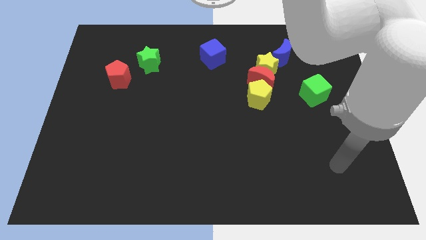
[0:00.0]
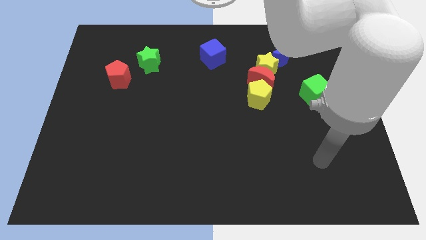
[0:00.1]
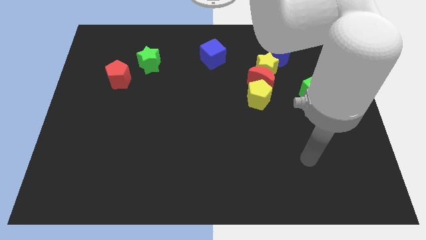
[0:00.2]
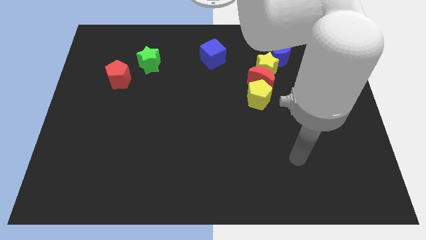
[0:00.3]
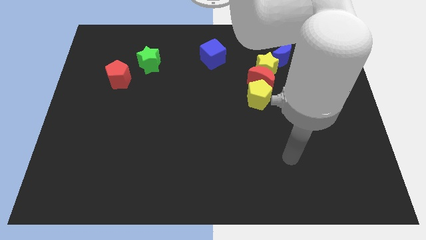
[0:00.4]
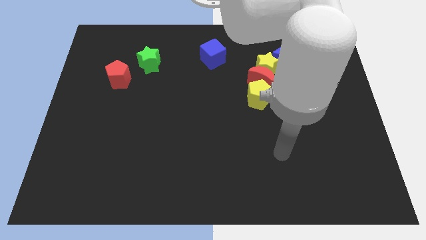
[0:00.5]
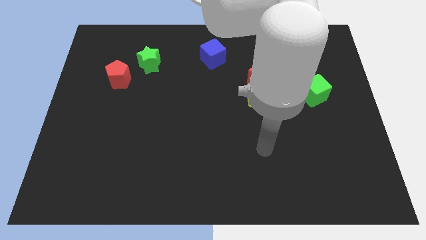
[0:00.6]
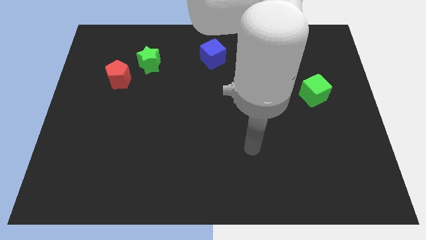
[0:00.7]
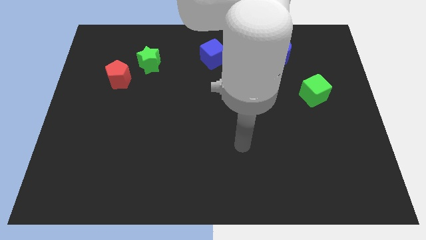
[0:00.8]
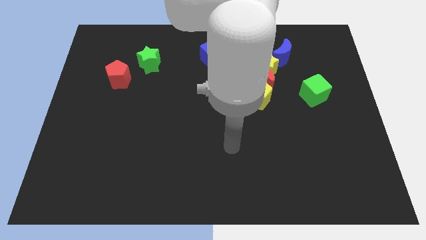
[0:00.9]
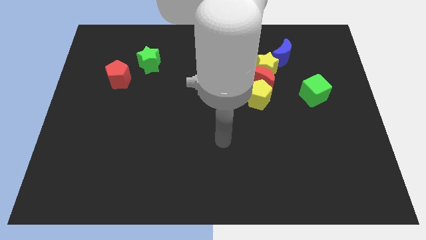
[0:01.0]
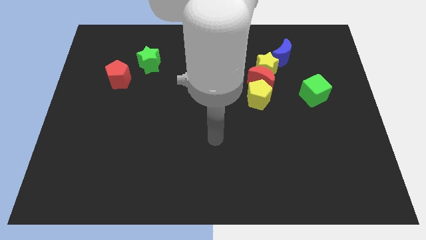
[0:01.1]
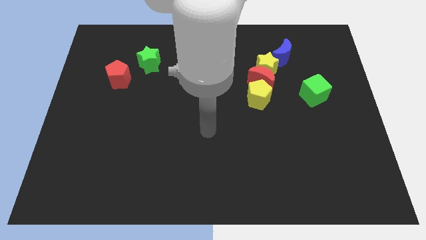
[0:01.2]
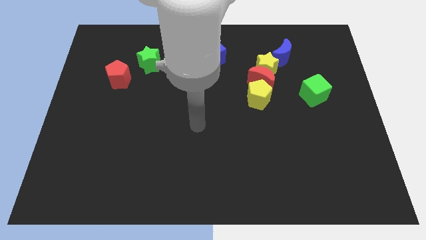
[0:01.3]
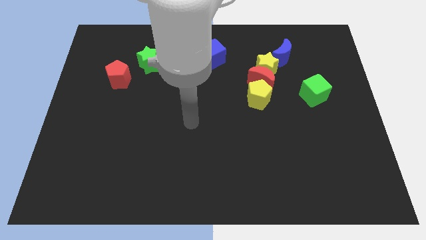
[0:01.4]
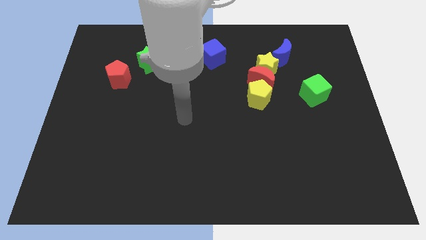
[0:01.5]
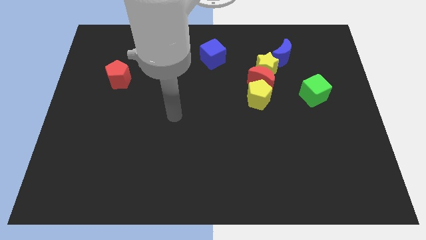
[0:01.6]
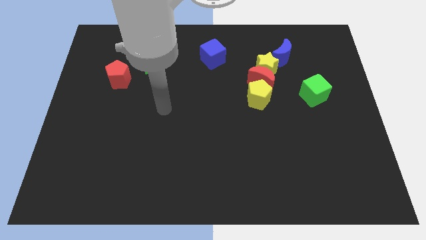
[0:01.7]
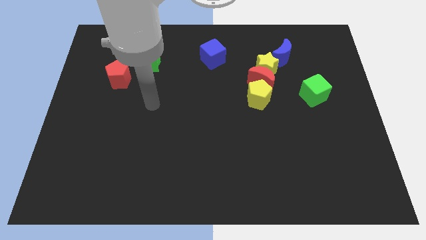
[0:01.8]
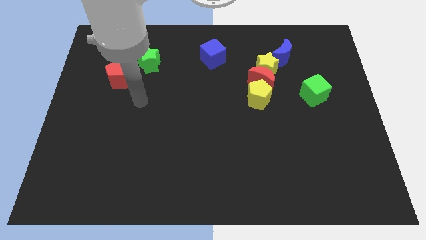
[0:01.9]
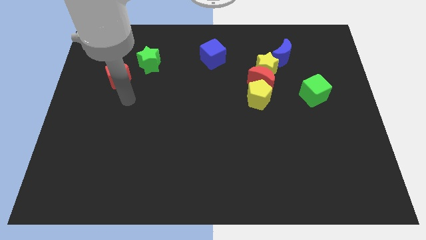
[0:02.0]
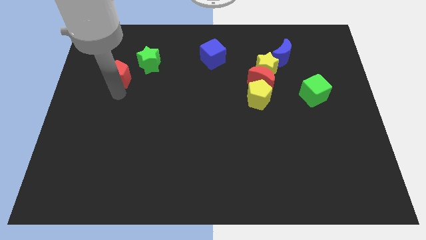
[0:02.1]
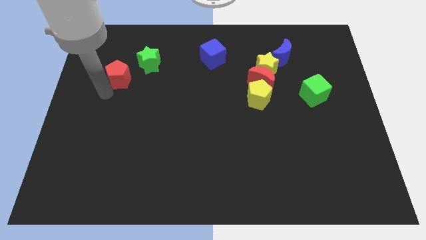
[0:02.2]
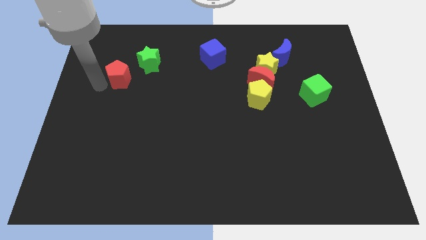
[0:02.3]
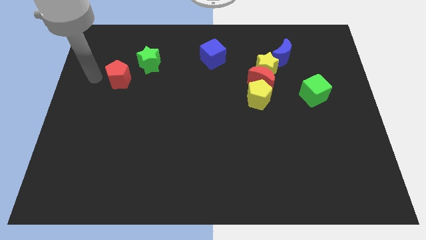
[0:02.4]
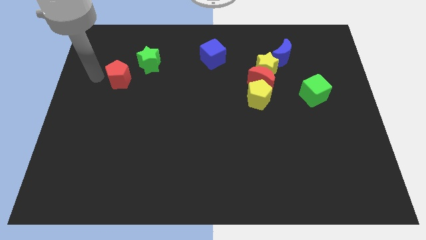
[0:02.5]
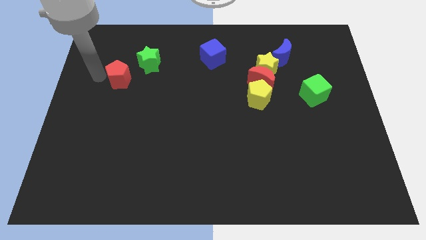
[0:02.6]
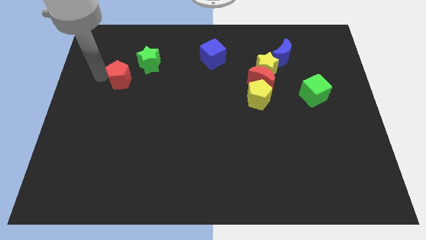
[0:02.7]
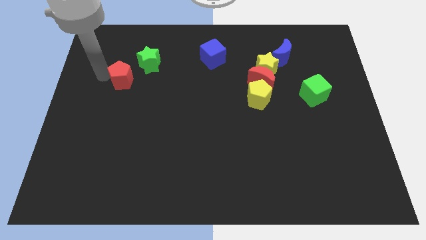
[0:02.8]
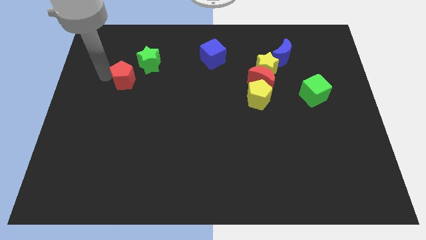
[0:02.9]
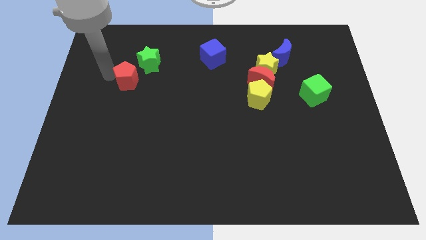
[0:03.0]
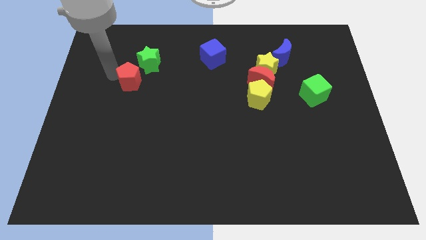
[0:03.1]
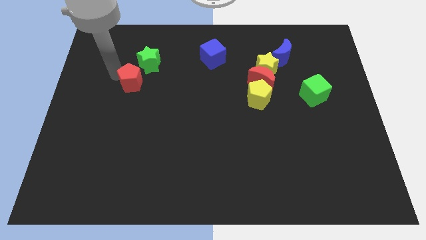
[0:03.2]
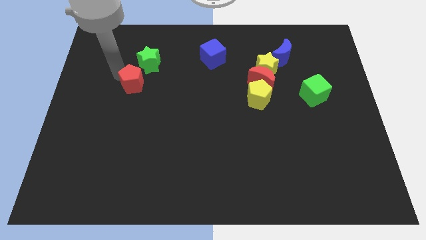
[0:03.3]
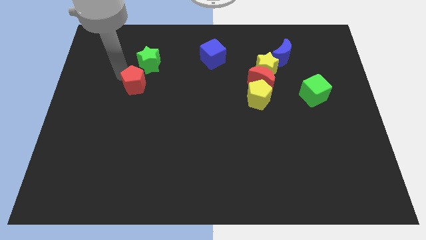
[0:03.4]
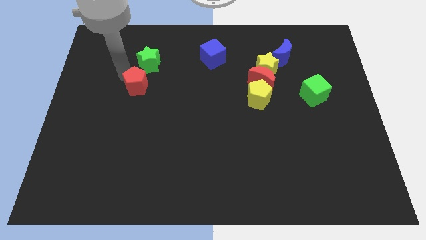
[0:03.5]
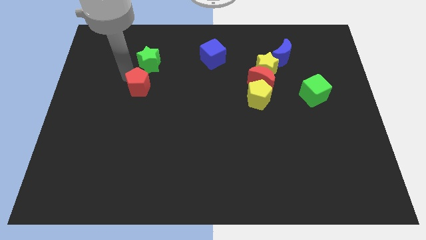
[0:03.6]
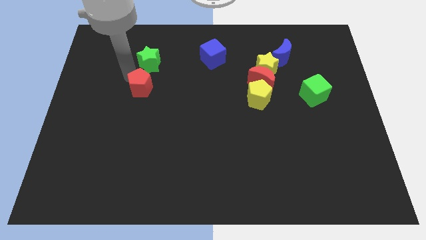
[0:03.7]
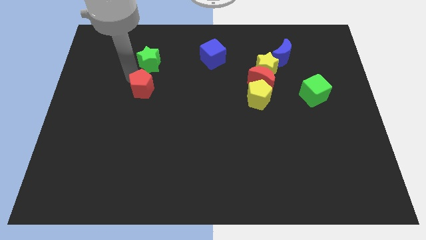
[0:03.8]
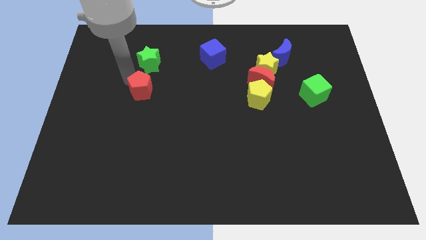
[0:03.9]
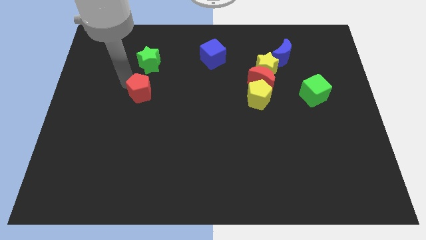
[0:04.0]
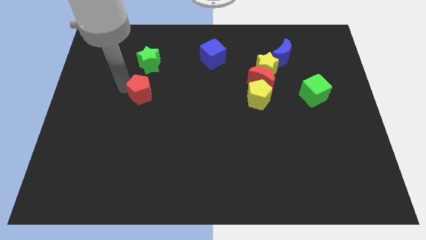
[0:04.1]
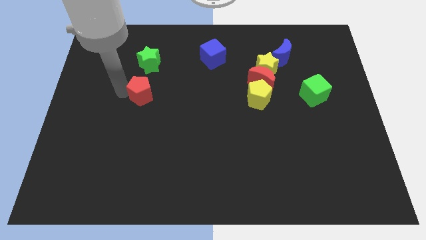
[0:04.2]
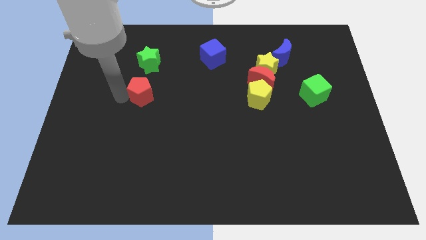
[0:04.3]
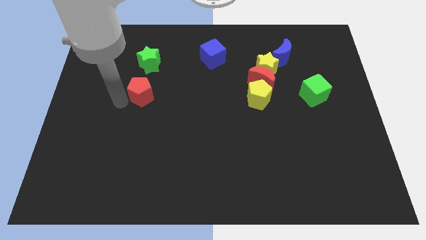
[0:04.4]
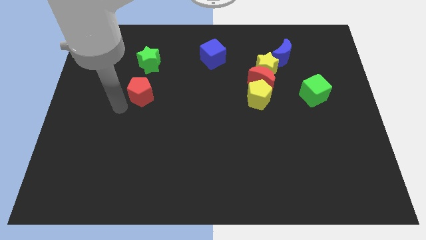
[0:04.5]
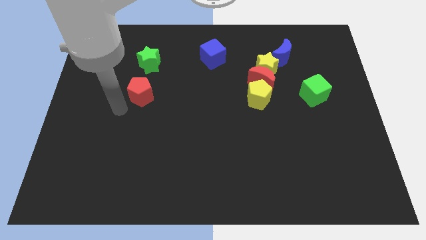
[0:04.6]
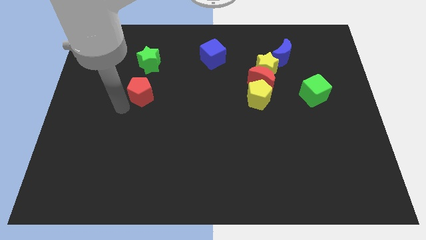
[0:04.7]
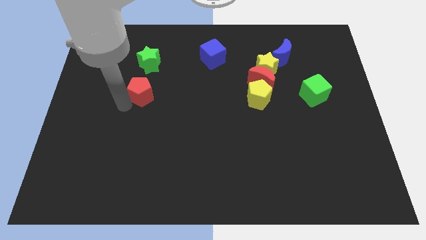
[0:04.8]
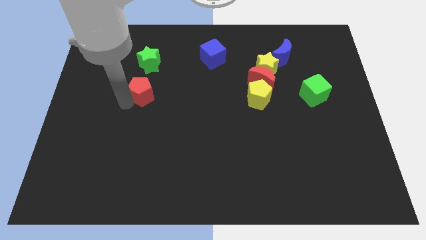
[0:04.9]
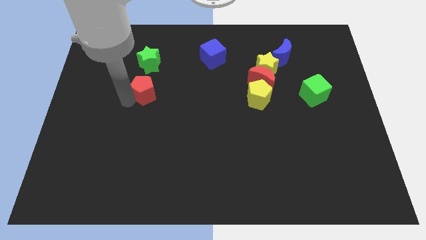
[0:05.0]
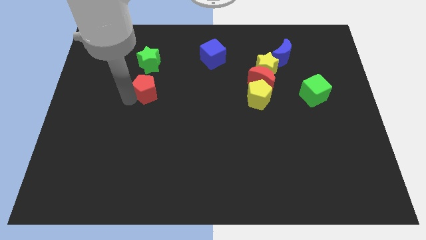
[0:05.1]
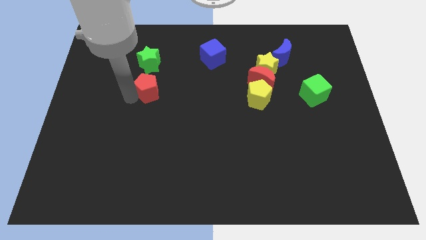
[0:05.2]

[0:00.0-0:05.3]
move the red pentagon right a little

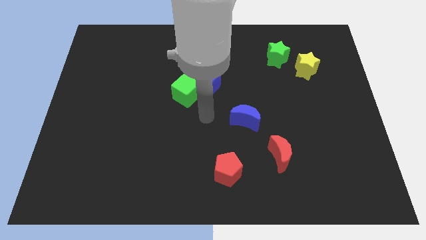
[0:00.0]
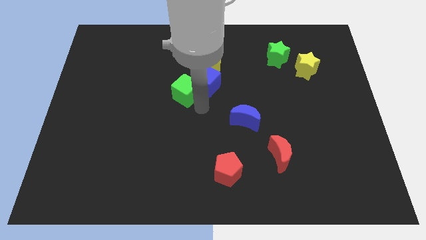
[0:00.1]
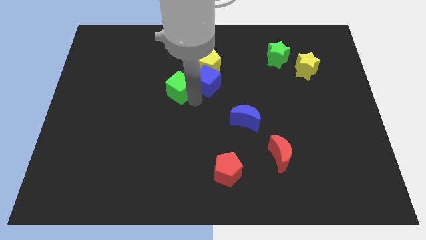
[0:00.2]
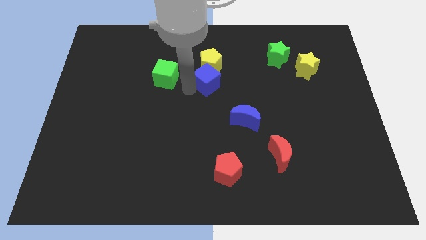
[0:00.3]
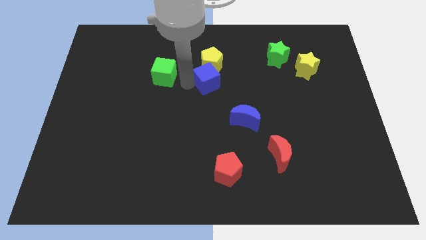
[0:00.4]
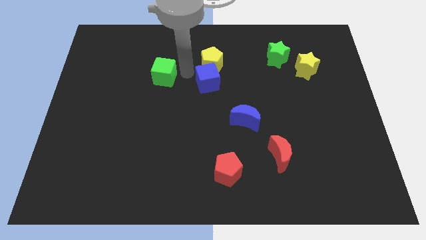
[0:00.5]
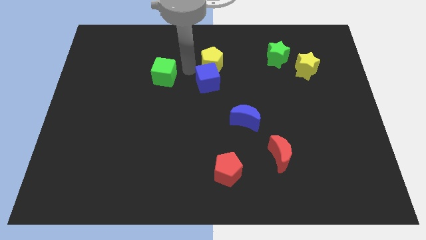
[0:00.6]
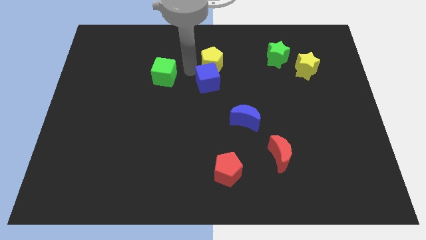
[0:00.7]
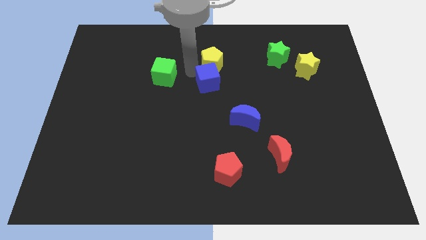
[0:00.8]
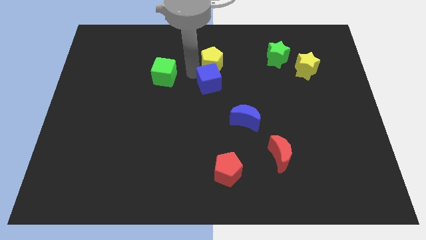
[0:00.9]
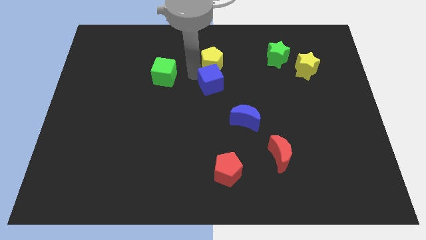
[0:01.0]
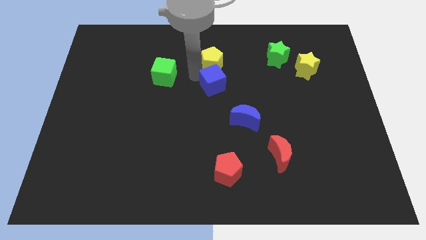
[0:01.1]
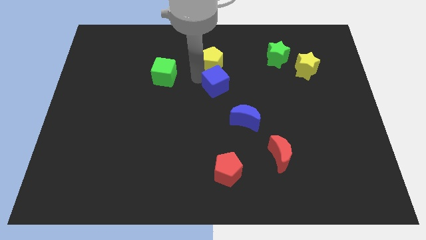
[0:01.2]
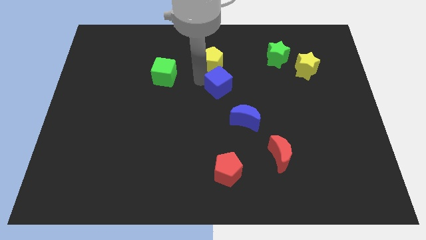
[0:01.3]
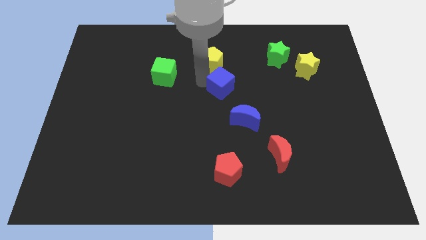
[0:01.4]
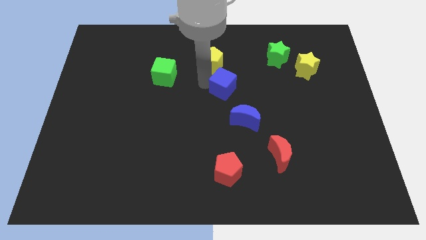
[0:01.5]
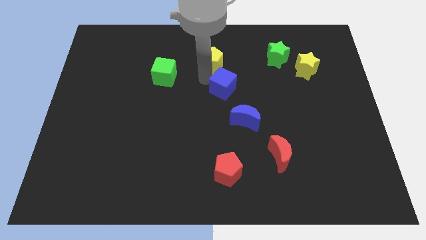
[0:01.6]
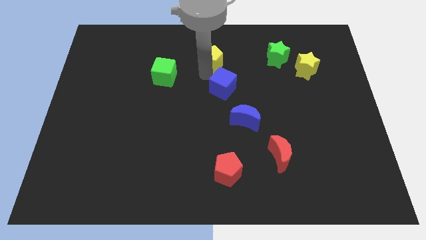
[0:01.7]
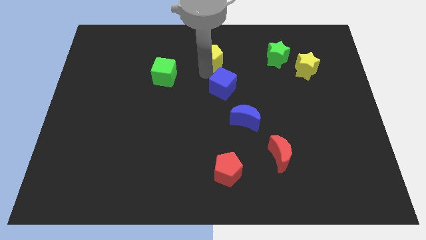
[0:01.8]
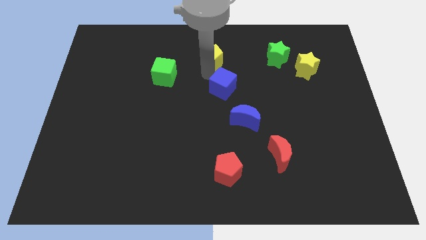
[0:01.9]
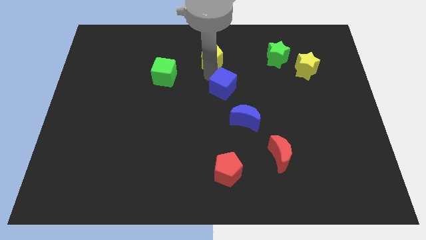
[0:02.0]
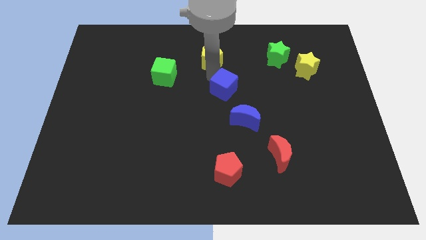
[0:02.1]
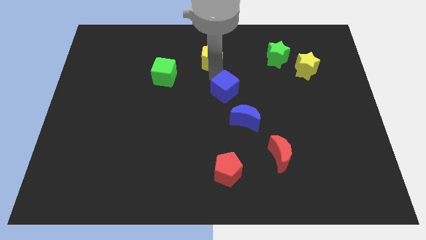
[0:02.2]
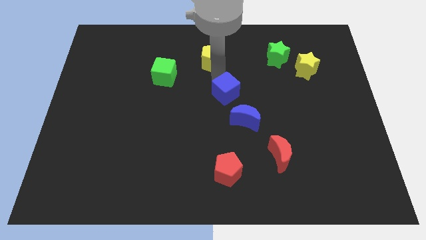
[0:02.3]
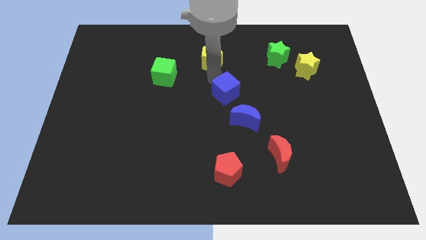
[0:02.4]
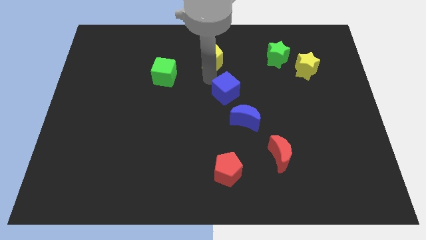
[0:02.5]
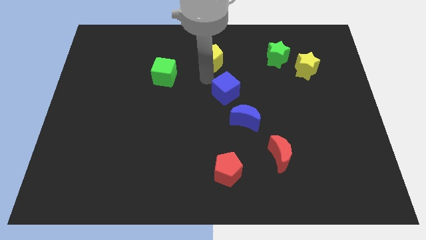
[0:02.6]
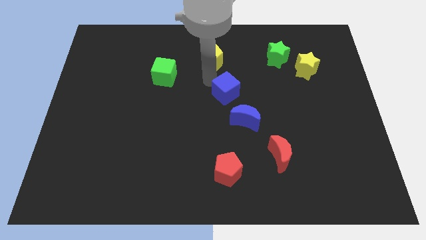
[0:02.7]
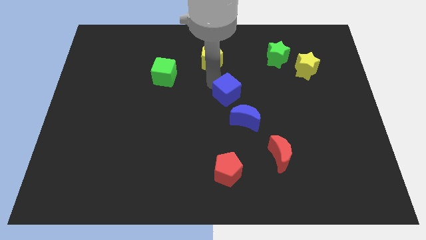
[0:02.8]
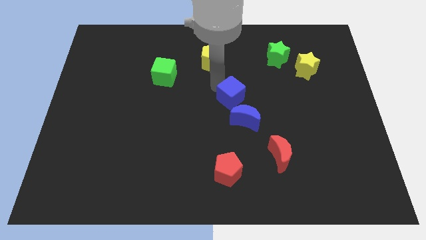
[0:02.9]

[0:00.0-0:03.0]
move the blue cube downwards and then to the right a little
